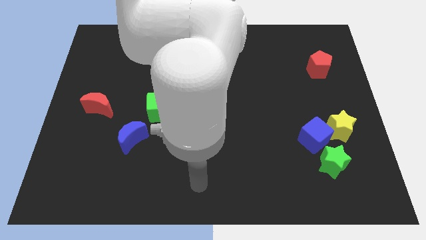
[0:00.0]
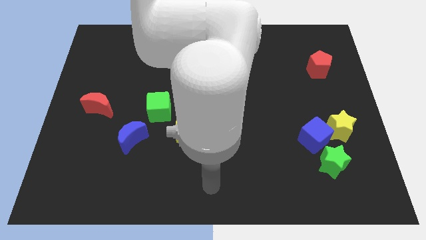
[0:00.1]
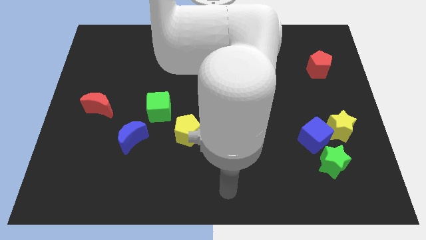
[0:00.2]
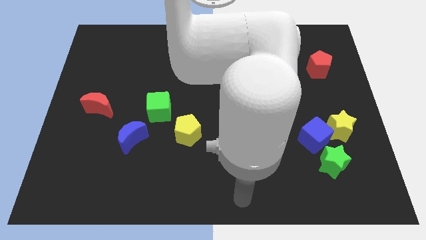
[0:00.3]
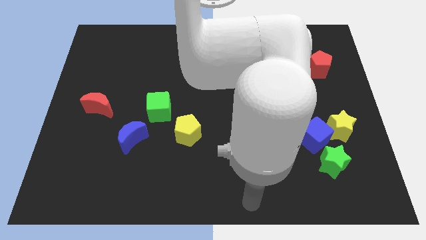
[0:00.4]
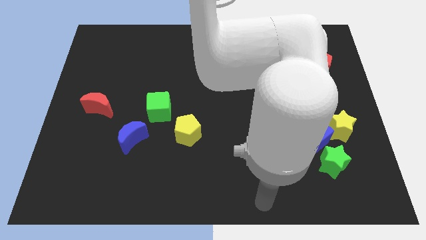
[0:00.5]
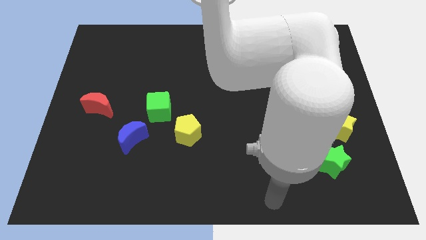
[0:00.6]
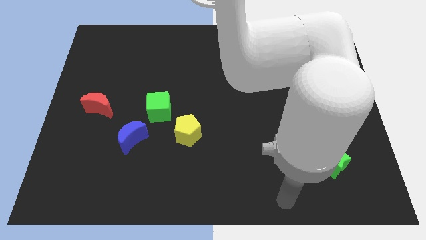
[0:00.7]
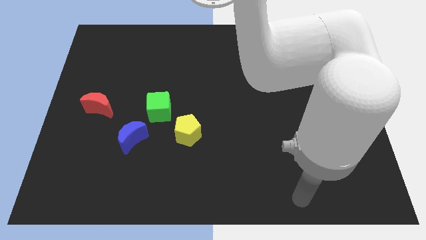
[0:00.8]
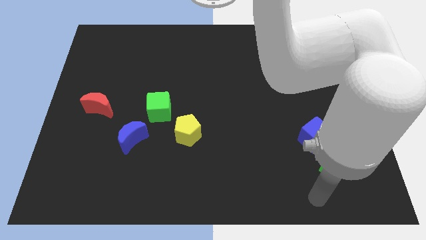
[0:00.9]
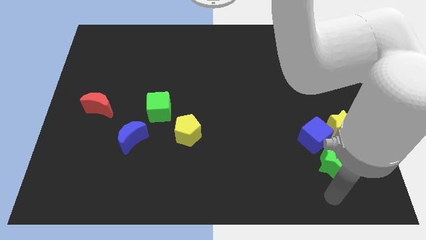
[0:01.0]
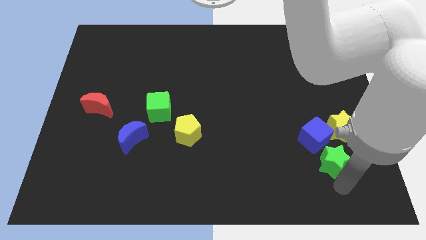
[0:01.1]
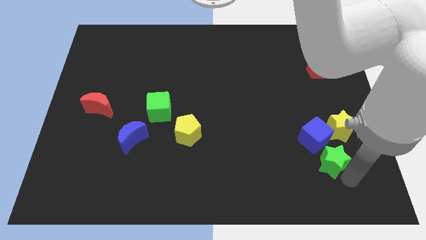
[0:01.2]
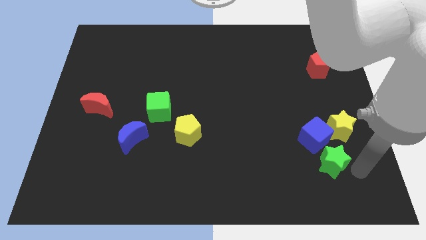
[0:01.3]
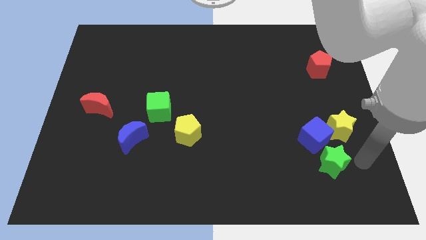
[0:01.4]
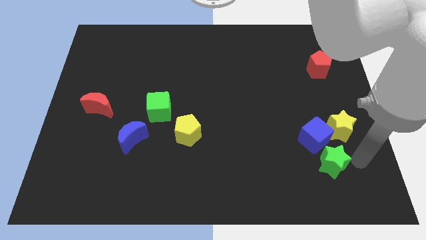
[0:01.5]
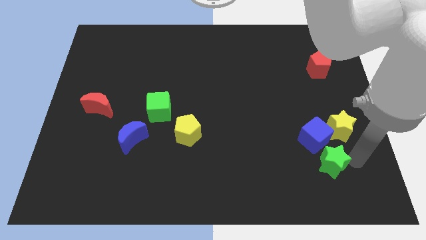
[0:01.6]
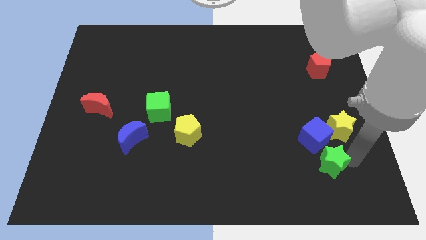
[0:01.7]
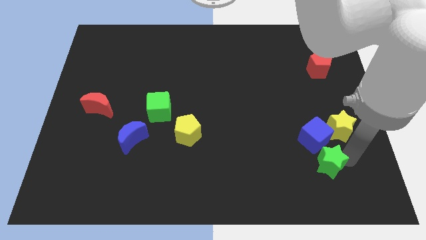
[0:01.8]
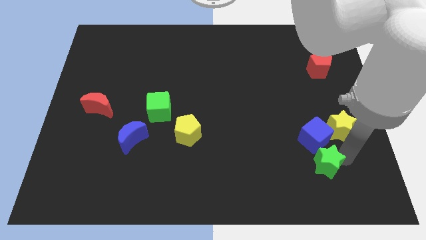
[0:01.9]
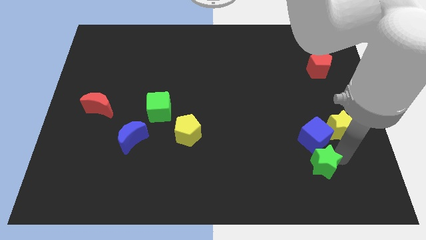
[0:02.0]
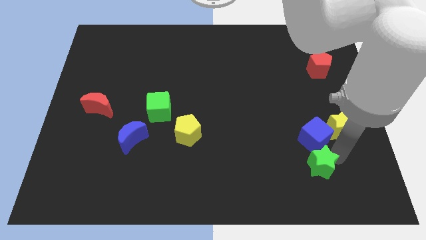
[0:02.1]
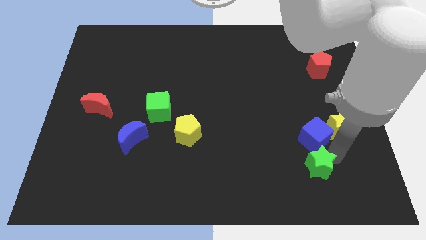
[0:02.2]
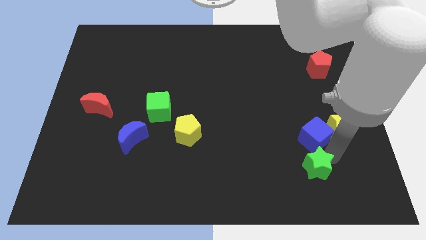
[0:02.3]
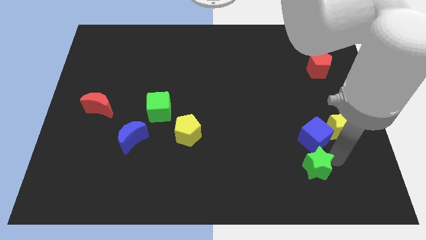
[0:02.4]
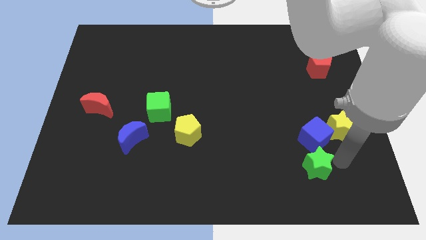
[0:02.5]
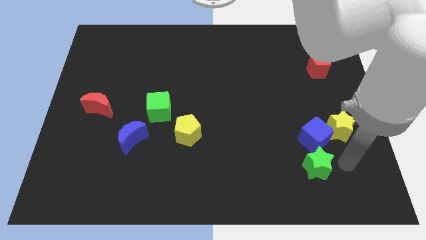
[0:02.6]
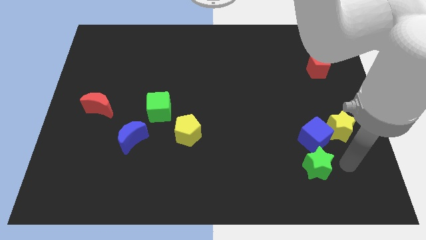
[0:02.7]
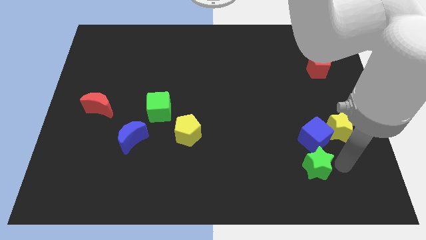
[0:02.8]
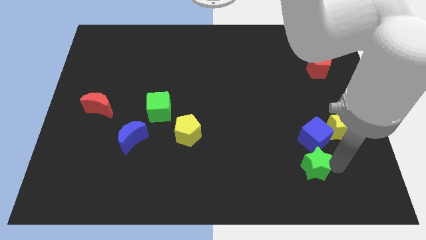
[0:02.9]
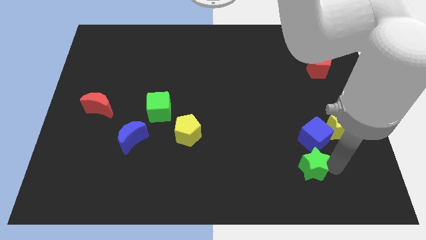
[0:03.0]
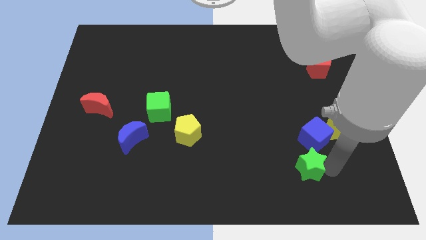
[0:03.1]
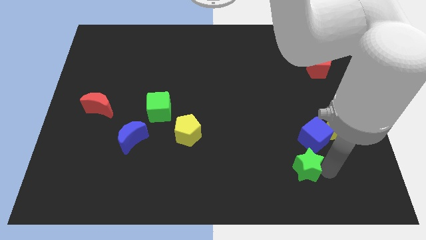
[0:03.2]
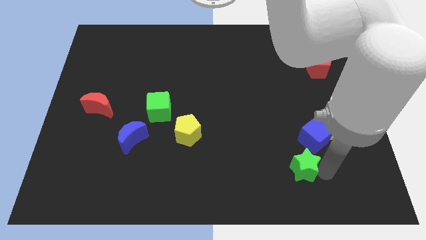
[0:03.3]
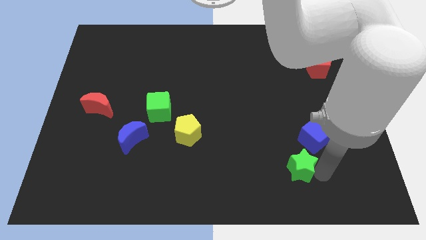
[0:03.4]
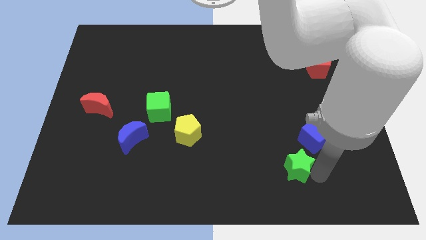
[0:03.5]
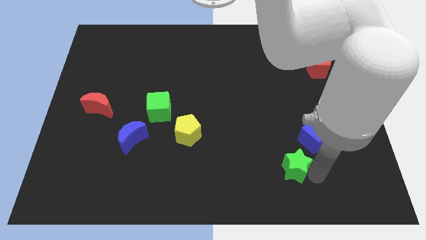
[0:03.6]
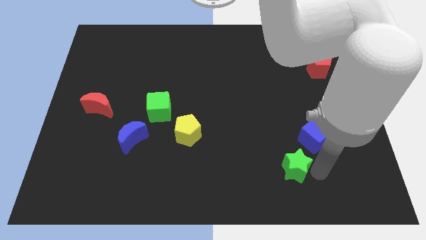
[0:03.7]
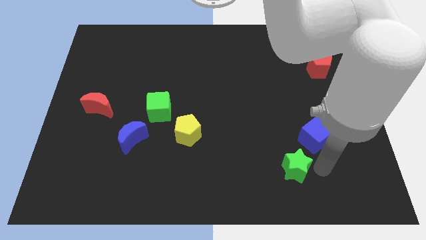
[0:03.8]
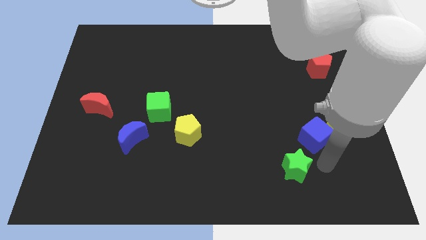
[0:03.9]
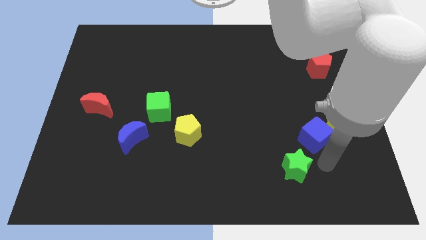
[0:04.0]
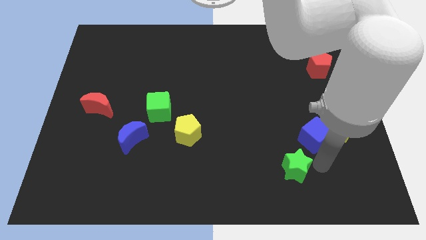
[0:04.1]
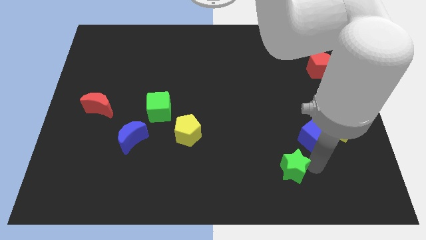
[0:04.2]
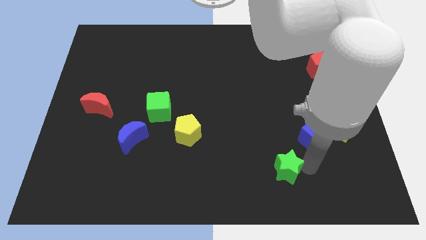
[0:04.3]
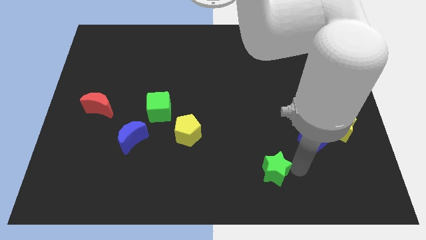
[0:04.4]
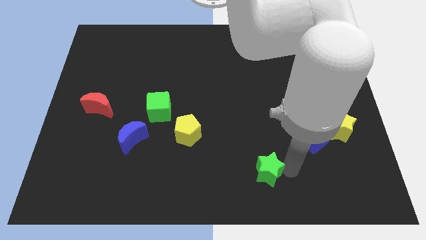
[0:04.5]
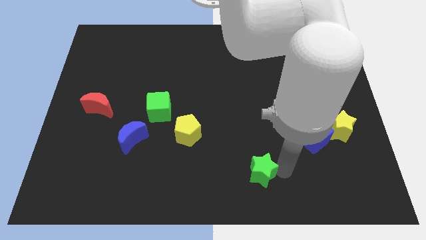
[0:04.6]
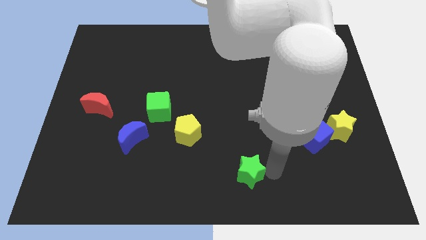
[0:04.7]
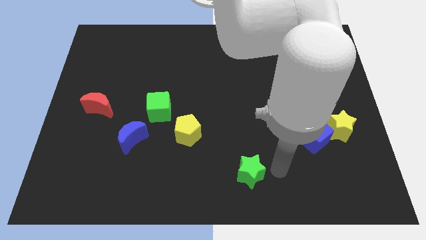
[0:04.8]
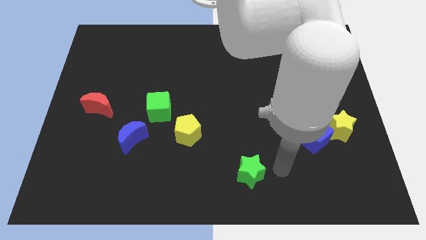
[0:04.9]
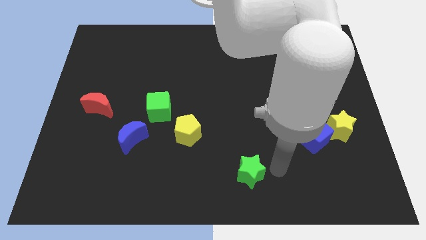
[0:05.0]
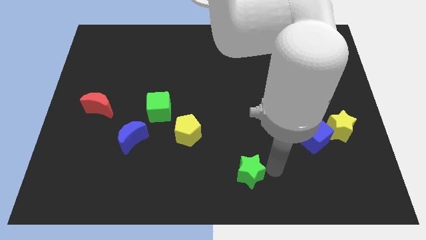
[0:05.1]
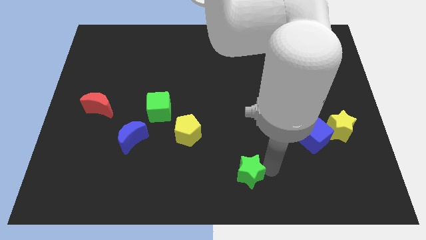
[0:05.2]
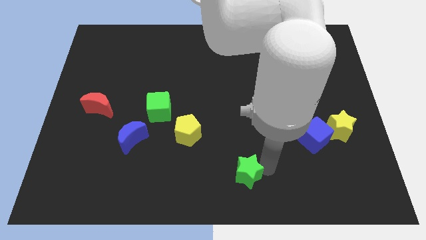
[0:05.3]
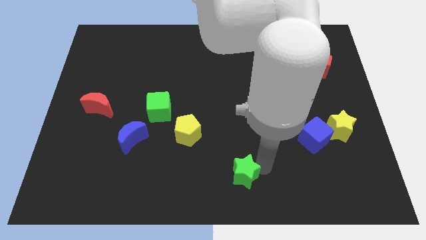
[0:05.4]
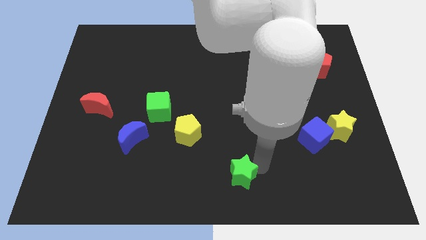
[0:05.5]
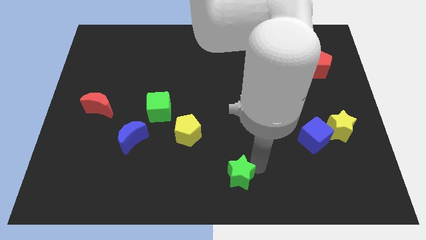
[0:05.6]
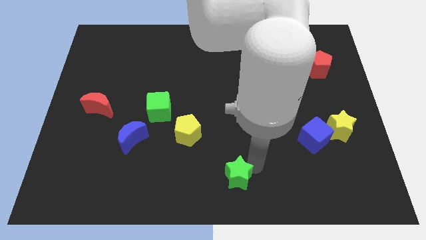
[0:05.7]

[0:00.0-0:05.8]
move the green star left

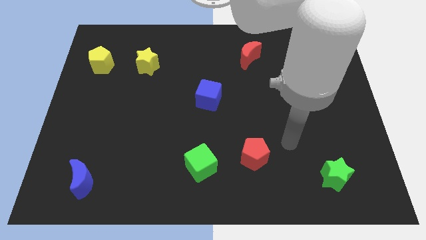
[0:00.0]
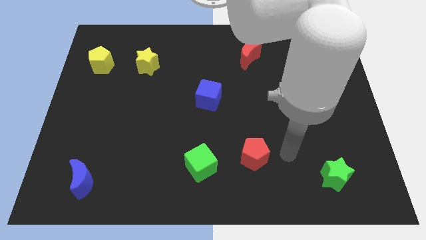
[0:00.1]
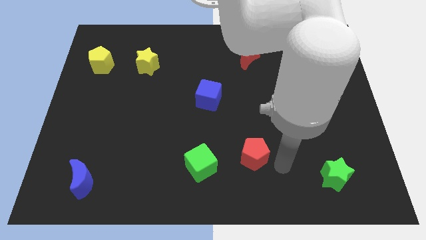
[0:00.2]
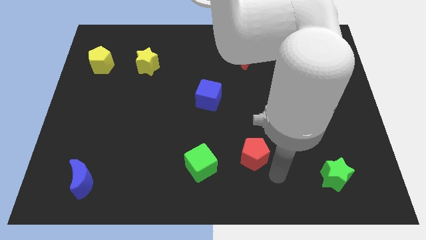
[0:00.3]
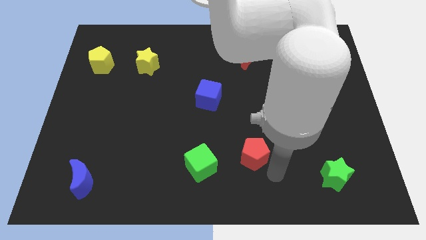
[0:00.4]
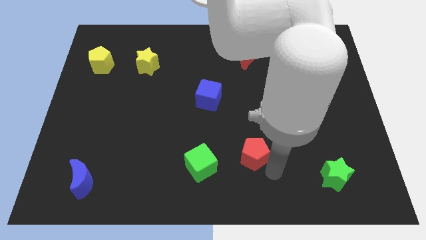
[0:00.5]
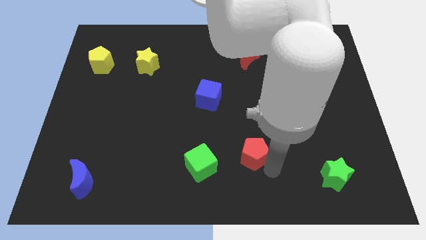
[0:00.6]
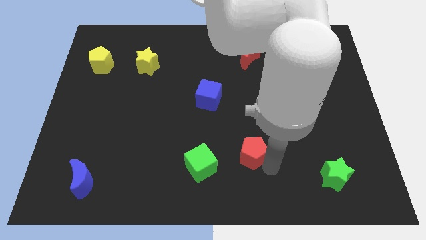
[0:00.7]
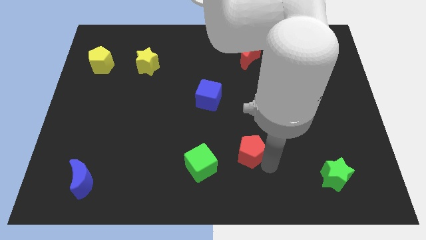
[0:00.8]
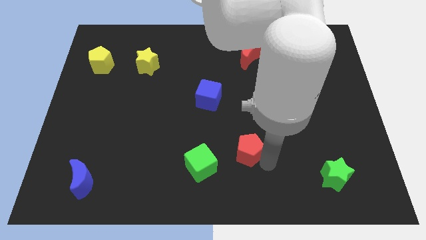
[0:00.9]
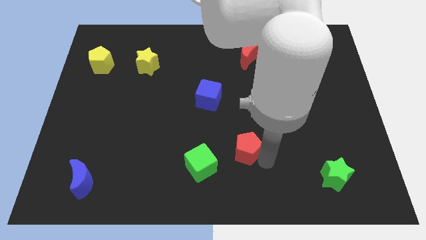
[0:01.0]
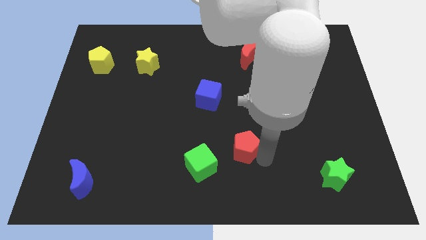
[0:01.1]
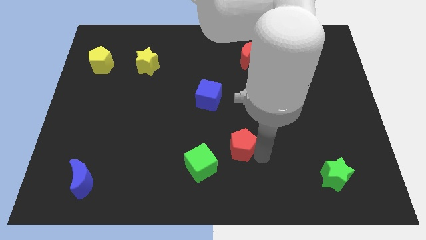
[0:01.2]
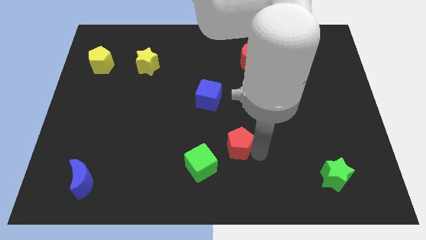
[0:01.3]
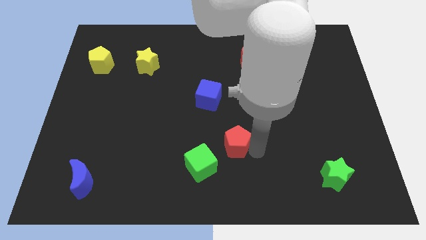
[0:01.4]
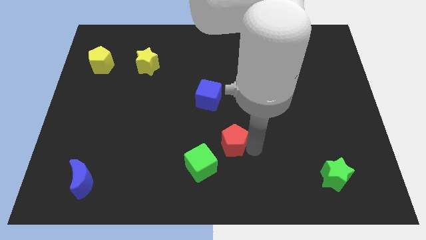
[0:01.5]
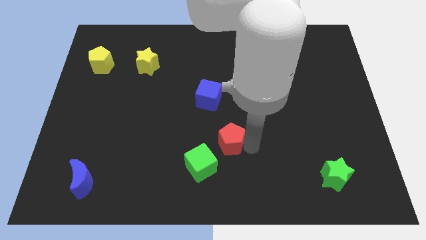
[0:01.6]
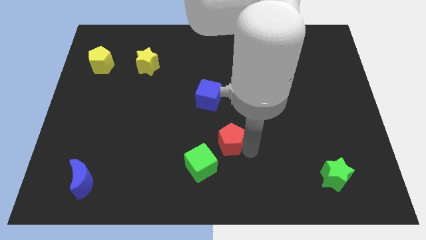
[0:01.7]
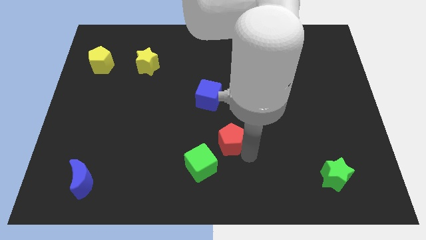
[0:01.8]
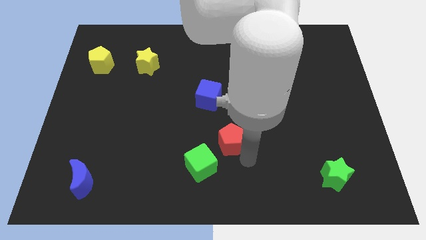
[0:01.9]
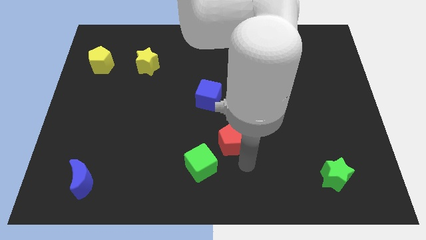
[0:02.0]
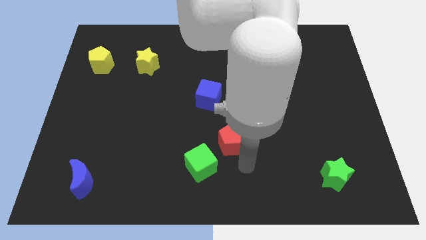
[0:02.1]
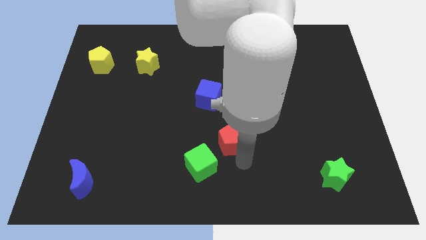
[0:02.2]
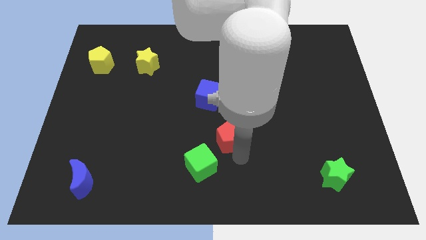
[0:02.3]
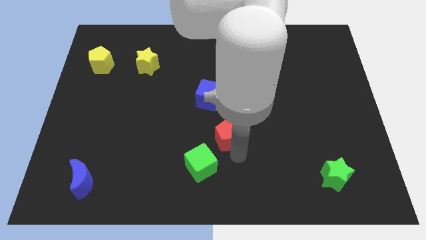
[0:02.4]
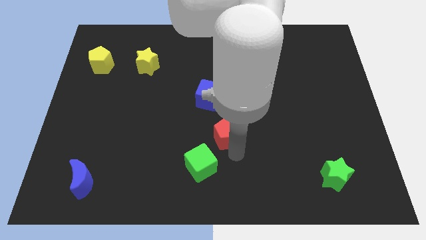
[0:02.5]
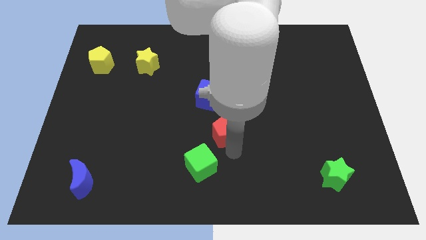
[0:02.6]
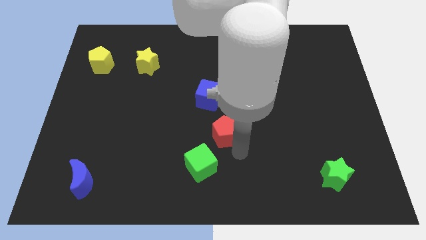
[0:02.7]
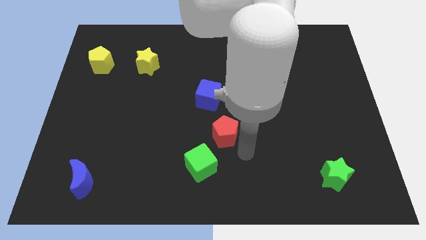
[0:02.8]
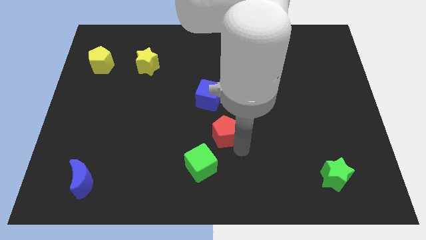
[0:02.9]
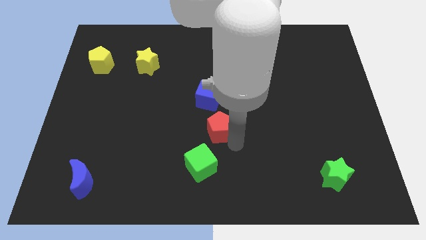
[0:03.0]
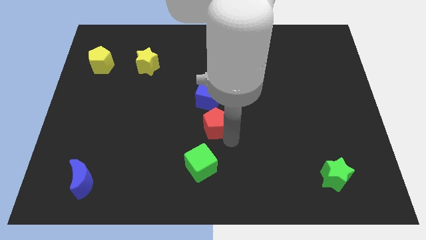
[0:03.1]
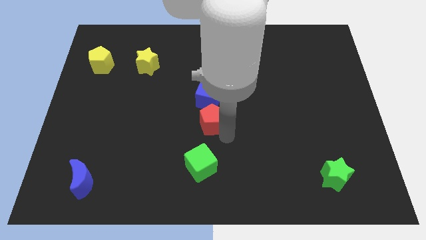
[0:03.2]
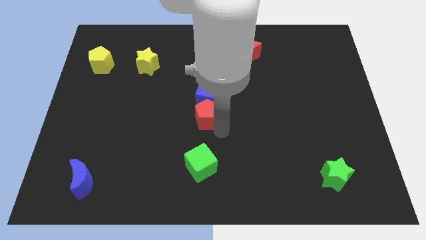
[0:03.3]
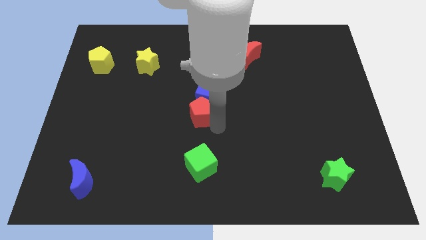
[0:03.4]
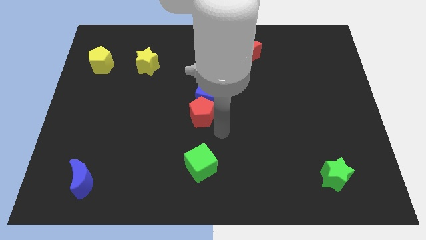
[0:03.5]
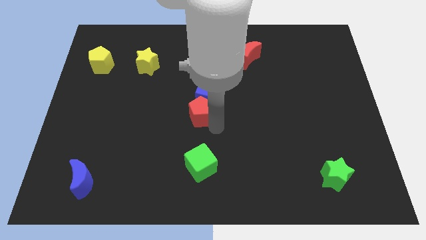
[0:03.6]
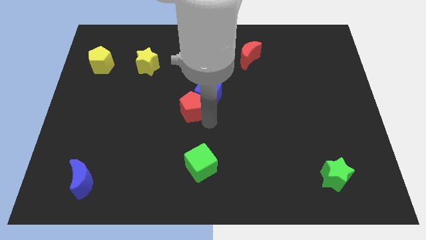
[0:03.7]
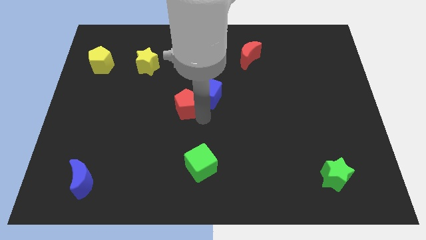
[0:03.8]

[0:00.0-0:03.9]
move the red pentagon diagonally upwards and left
